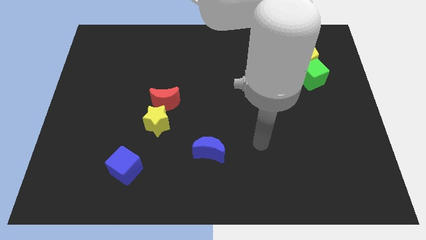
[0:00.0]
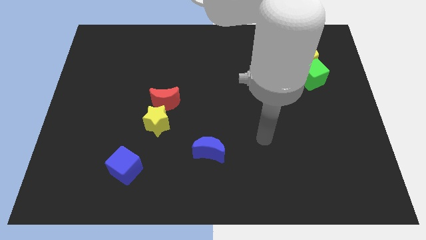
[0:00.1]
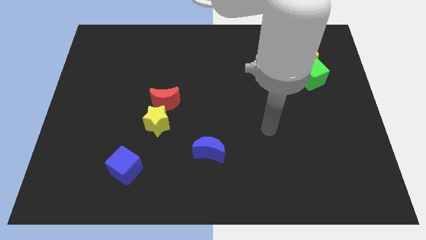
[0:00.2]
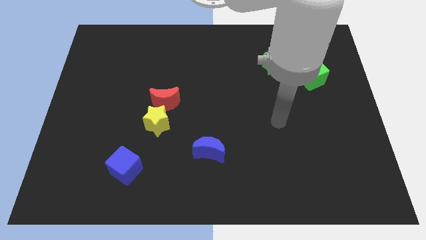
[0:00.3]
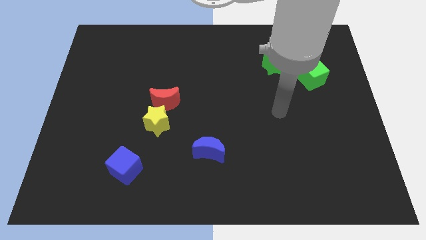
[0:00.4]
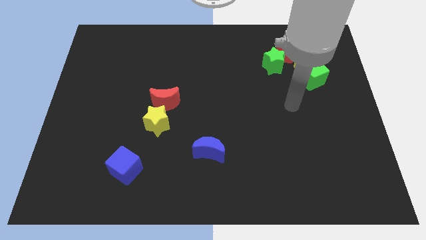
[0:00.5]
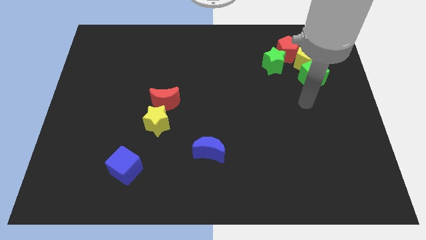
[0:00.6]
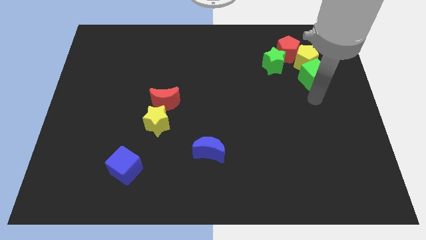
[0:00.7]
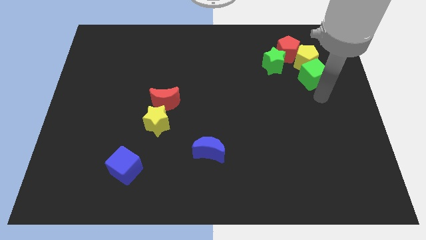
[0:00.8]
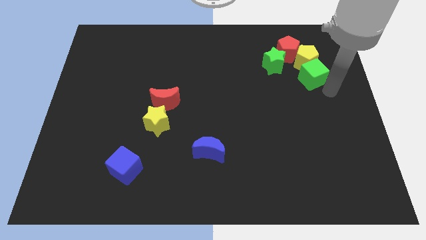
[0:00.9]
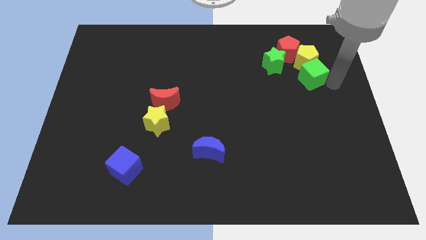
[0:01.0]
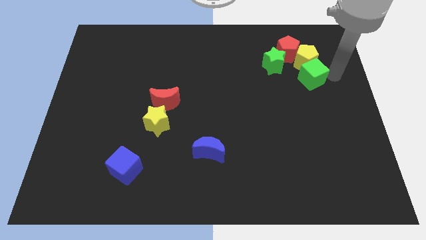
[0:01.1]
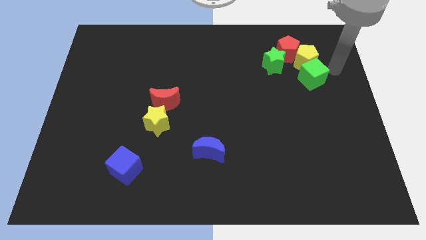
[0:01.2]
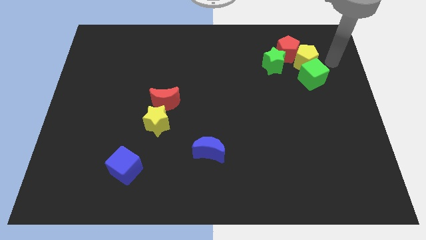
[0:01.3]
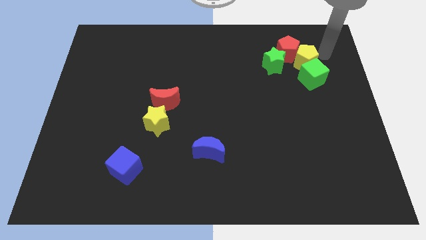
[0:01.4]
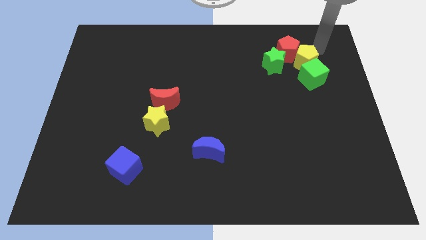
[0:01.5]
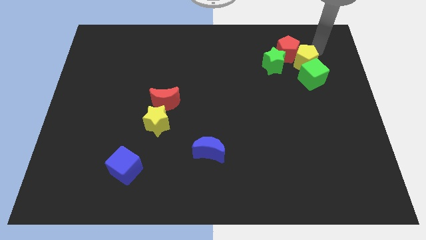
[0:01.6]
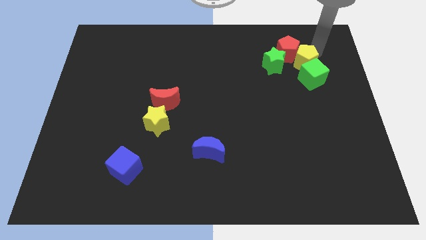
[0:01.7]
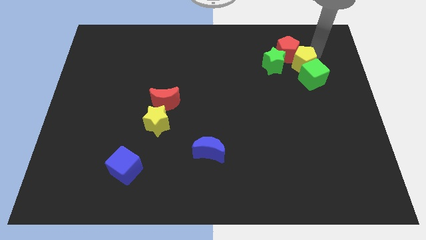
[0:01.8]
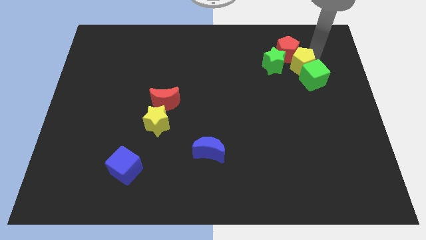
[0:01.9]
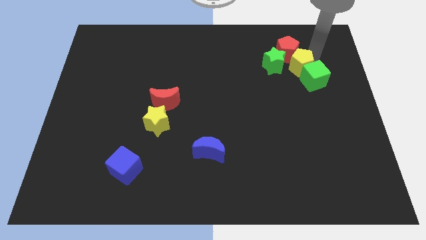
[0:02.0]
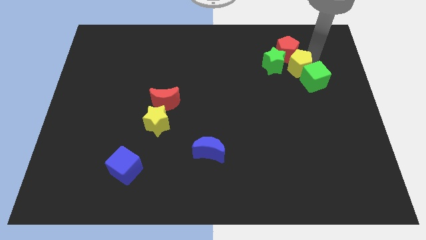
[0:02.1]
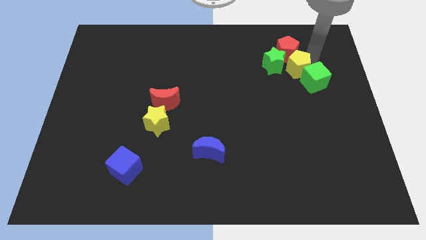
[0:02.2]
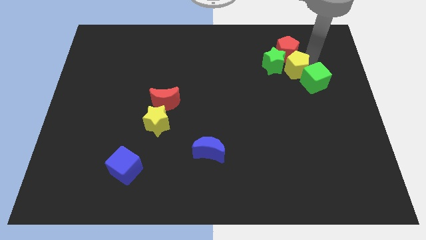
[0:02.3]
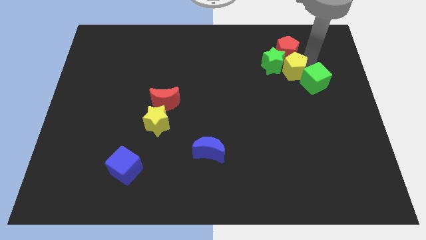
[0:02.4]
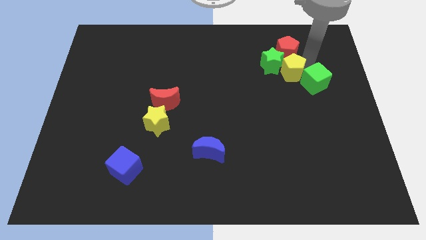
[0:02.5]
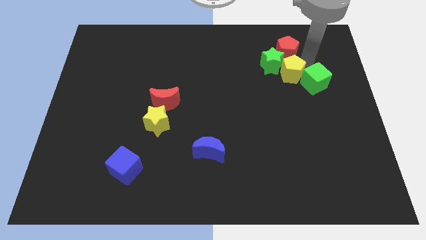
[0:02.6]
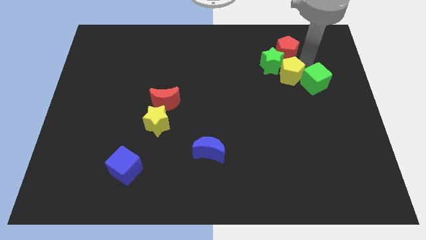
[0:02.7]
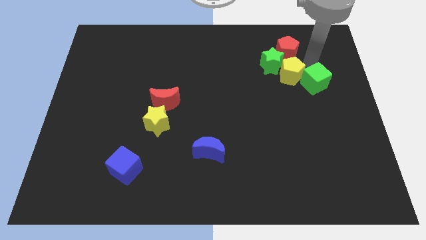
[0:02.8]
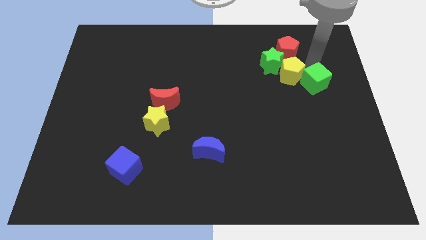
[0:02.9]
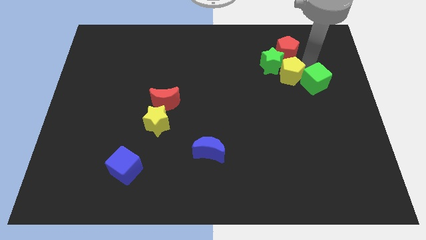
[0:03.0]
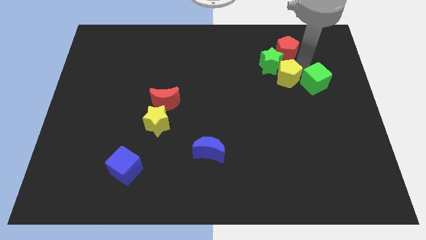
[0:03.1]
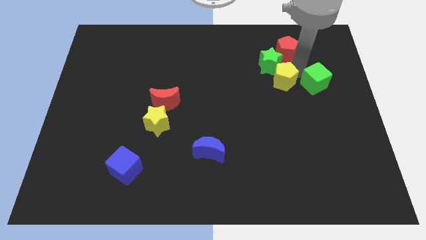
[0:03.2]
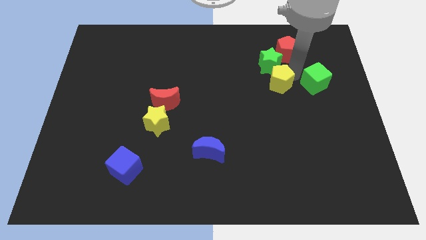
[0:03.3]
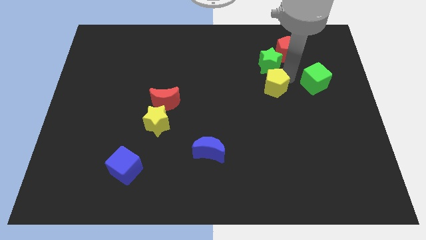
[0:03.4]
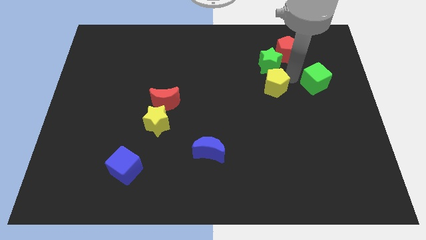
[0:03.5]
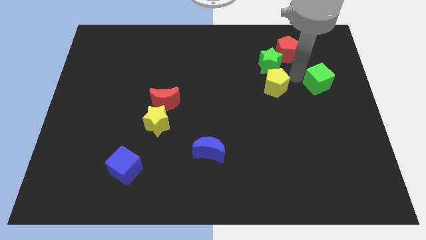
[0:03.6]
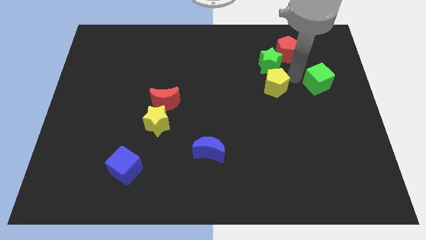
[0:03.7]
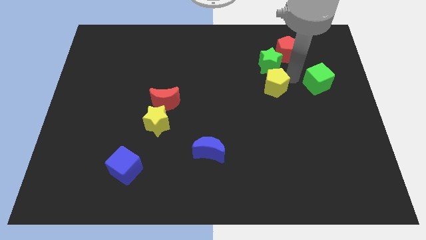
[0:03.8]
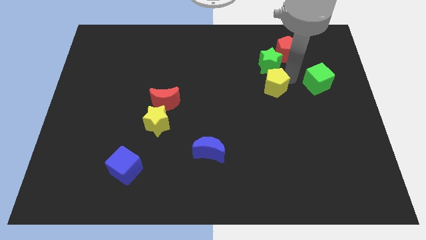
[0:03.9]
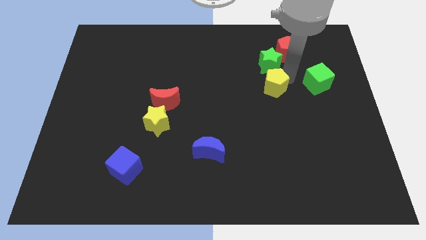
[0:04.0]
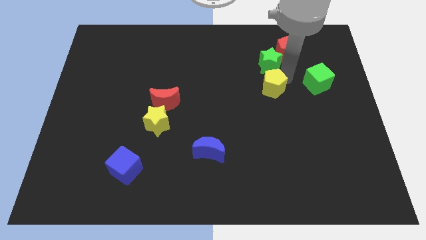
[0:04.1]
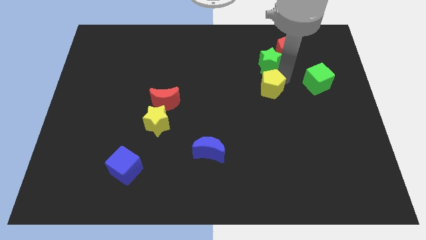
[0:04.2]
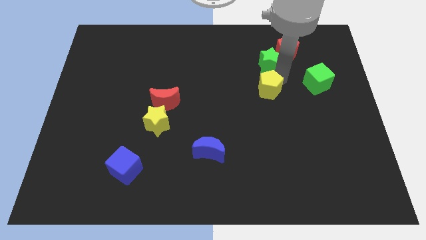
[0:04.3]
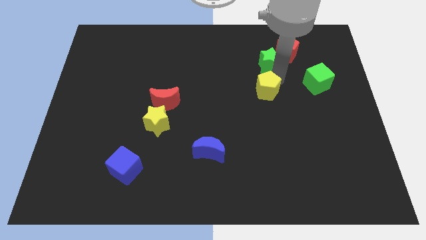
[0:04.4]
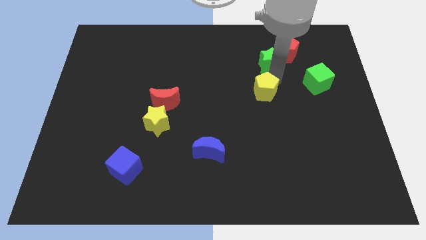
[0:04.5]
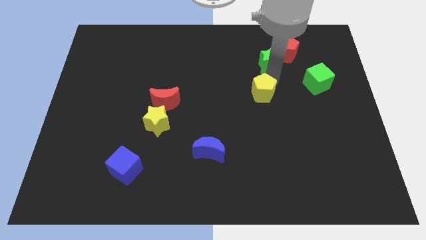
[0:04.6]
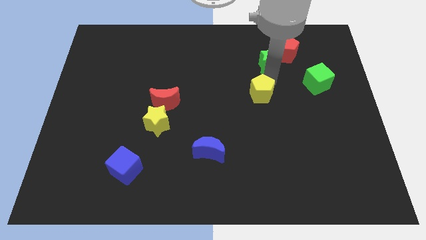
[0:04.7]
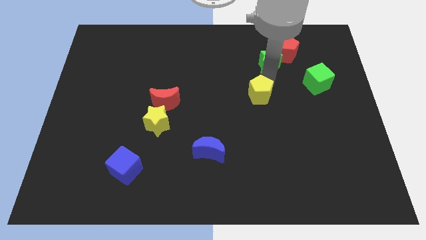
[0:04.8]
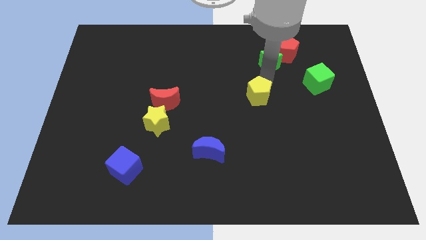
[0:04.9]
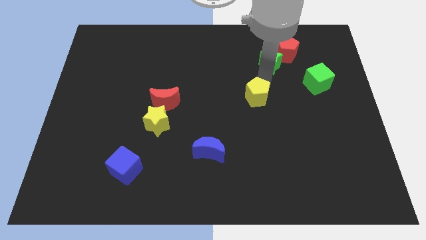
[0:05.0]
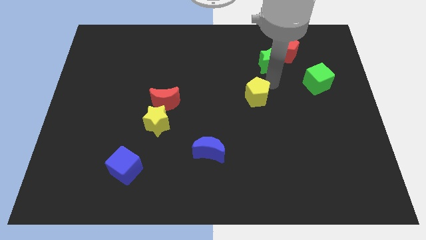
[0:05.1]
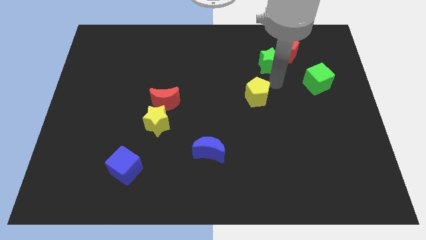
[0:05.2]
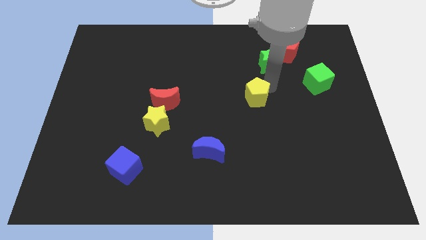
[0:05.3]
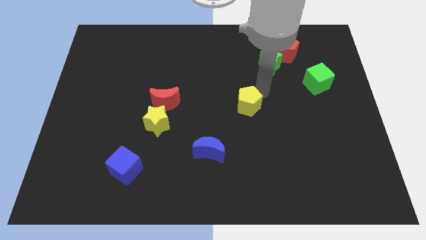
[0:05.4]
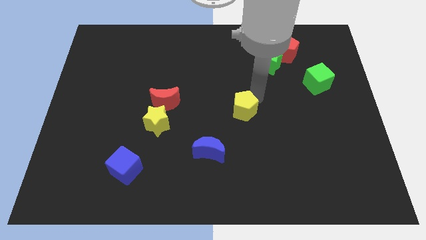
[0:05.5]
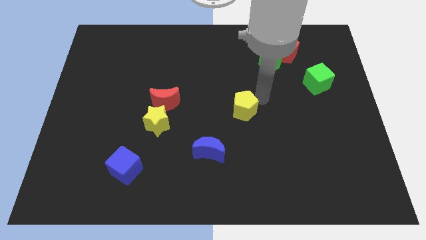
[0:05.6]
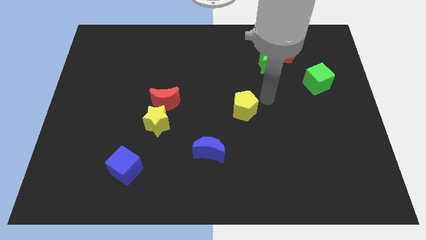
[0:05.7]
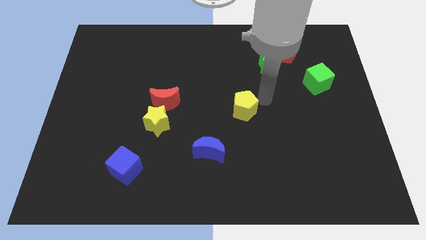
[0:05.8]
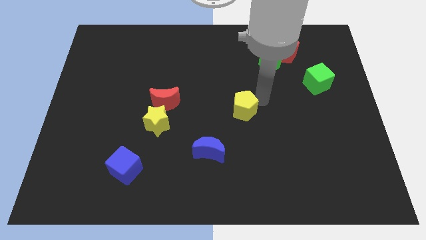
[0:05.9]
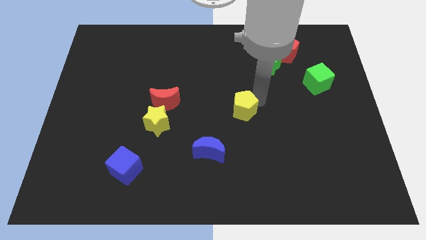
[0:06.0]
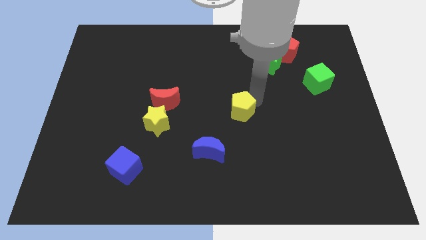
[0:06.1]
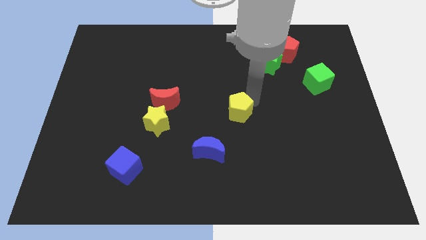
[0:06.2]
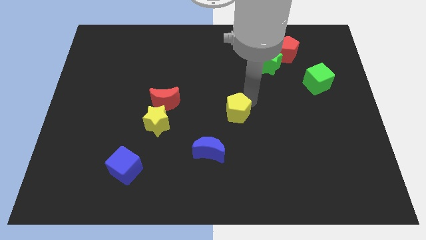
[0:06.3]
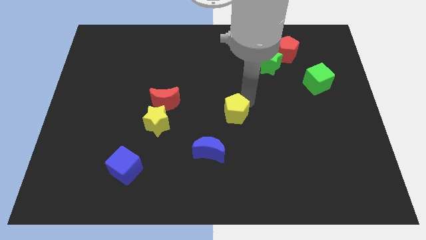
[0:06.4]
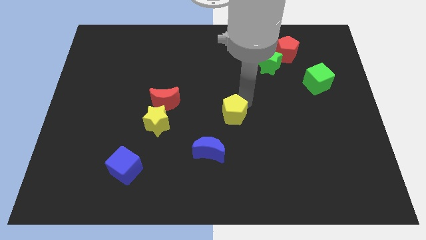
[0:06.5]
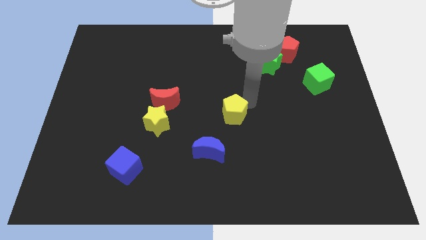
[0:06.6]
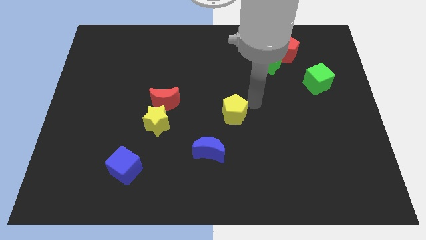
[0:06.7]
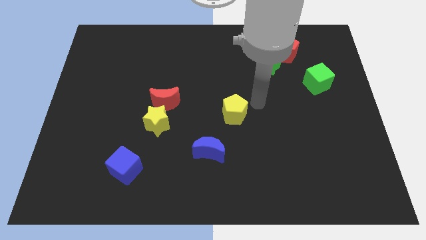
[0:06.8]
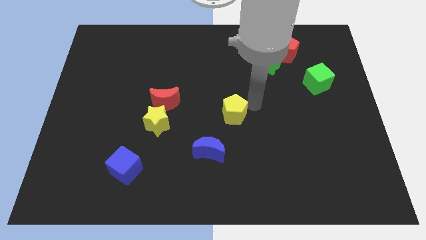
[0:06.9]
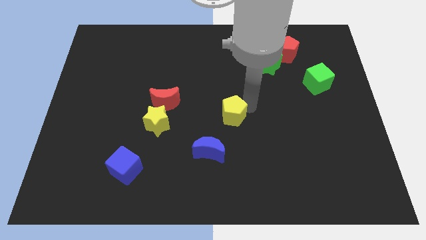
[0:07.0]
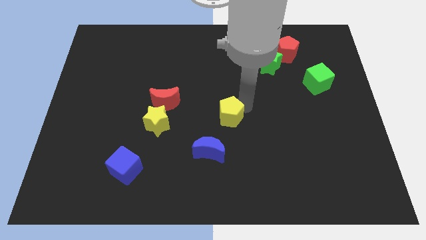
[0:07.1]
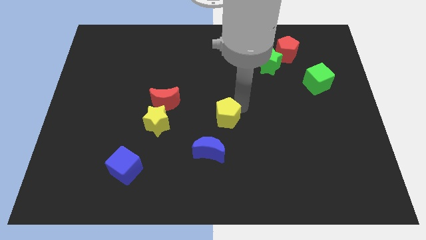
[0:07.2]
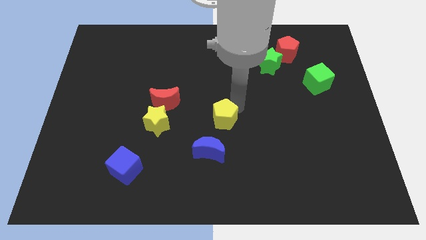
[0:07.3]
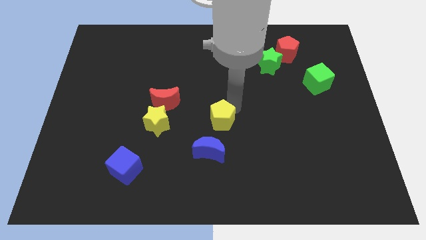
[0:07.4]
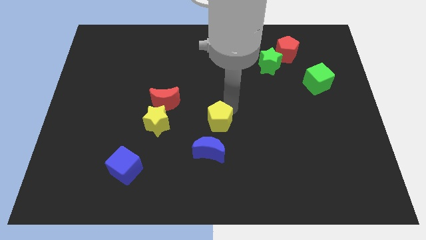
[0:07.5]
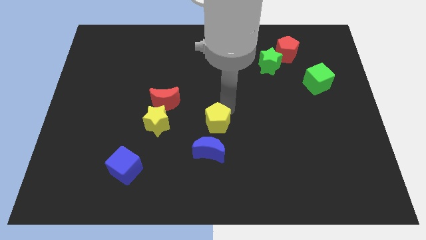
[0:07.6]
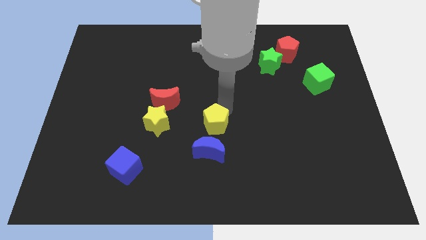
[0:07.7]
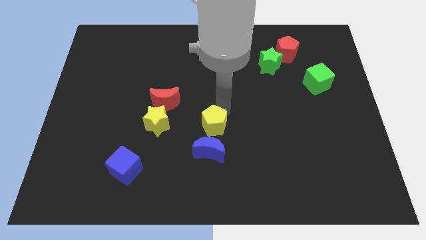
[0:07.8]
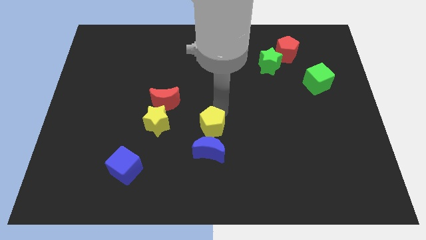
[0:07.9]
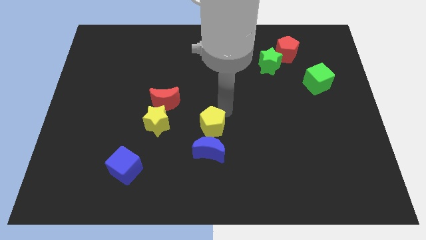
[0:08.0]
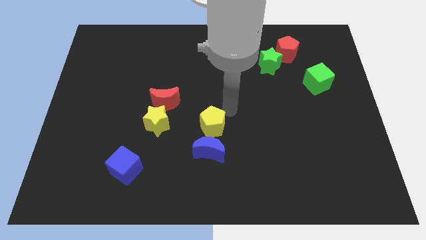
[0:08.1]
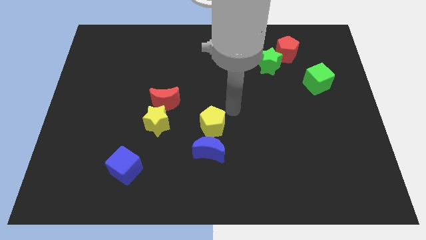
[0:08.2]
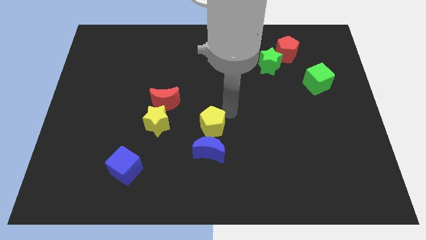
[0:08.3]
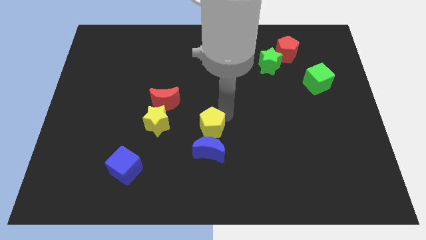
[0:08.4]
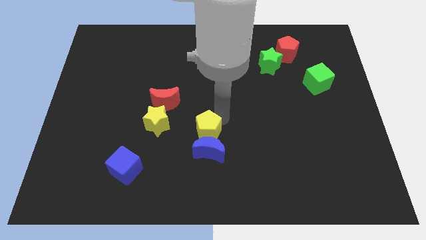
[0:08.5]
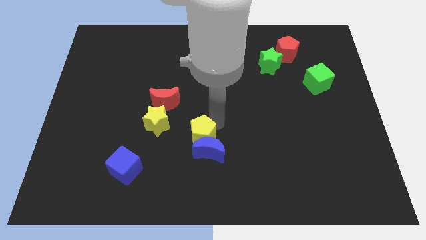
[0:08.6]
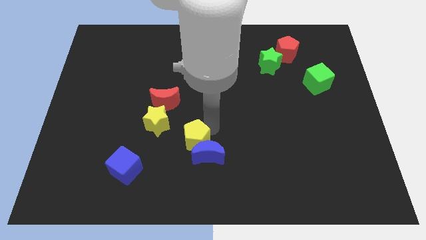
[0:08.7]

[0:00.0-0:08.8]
put the yellow pentagon to the bottom right of the yellow star
